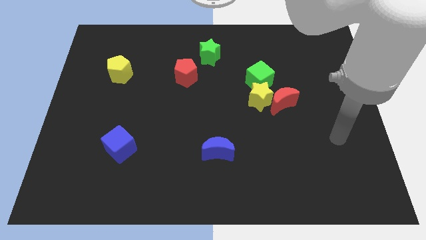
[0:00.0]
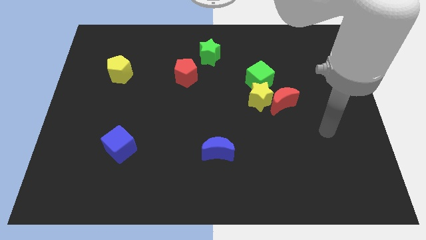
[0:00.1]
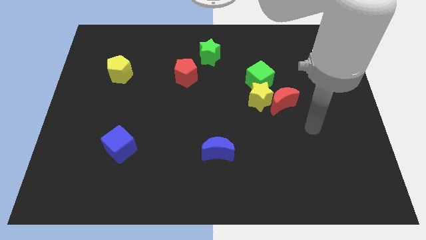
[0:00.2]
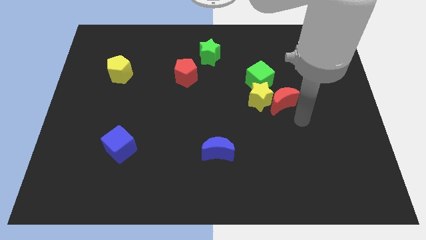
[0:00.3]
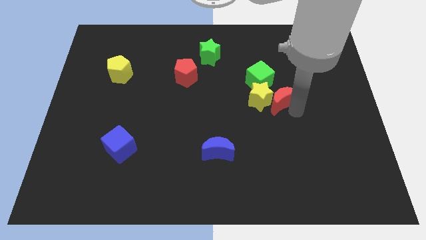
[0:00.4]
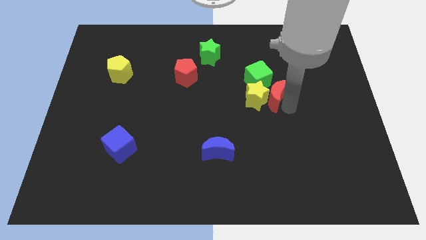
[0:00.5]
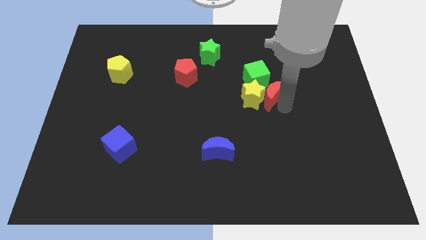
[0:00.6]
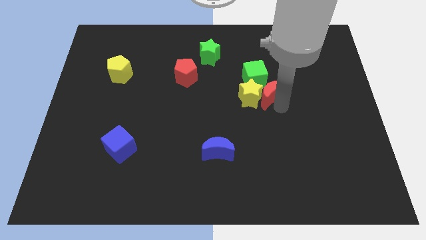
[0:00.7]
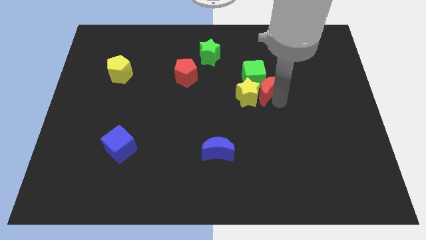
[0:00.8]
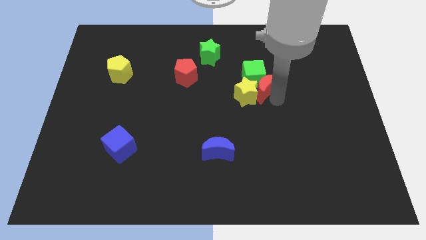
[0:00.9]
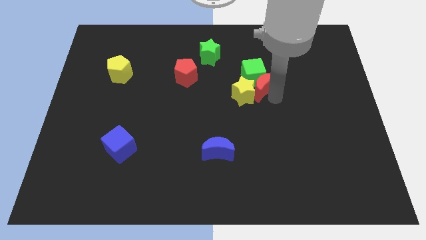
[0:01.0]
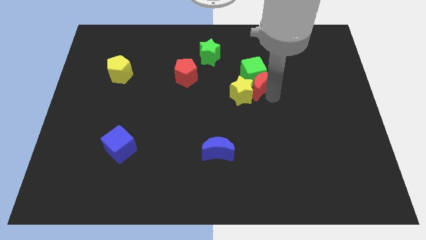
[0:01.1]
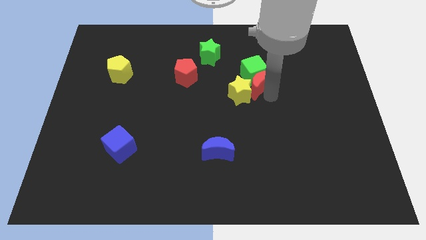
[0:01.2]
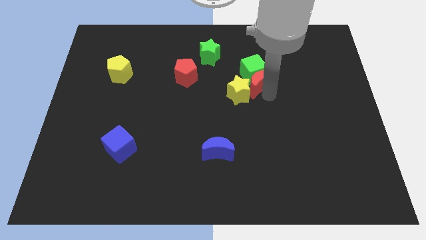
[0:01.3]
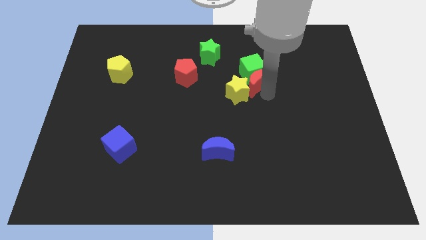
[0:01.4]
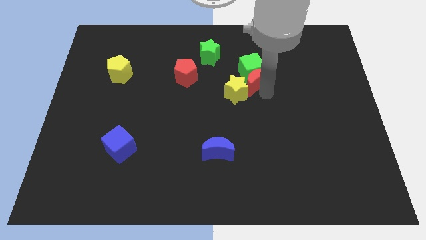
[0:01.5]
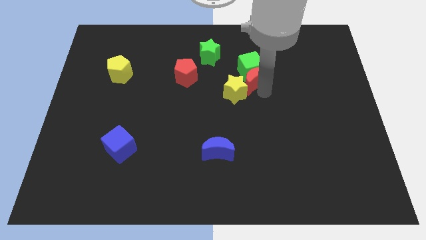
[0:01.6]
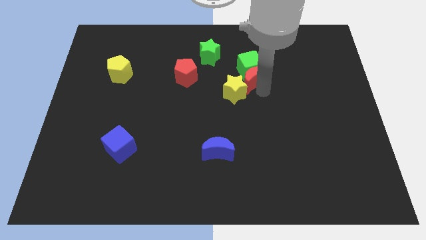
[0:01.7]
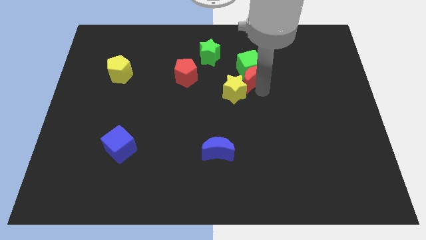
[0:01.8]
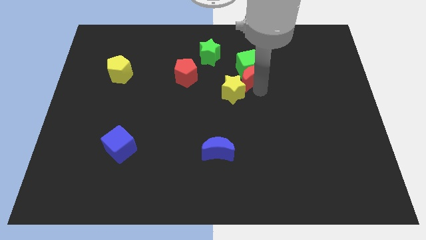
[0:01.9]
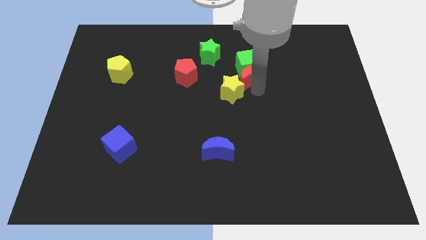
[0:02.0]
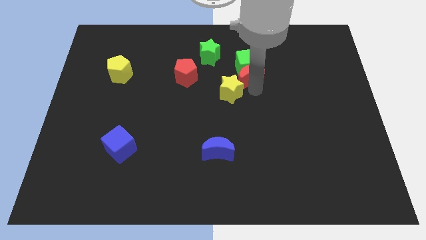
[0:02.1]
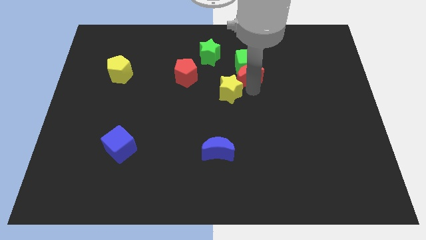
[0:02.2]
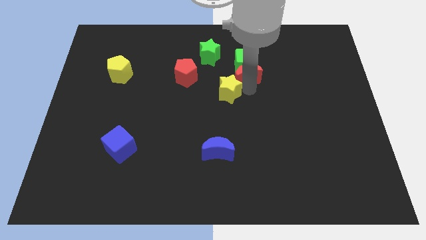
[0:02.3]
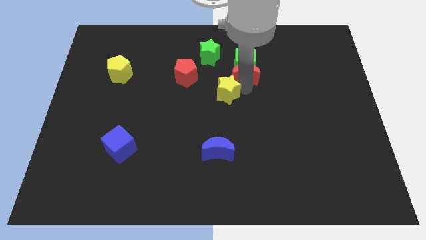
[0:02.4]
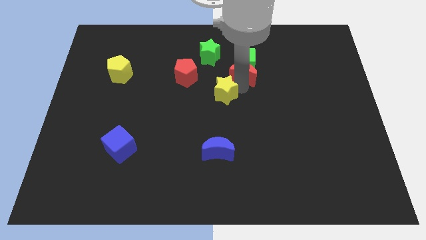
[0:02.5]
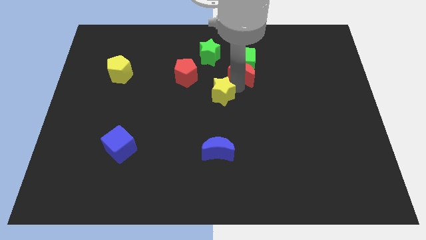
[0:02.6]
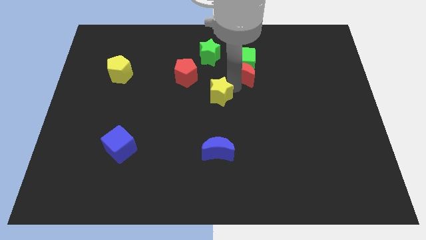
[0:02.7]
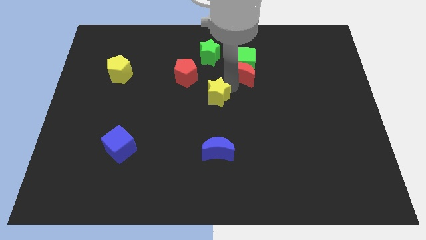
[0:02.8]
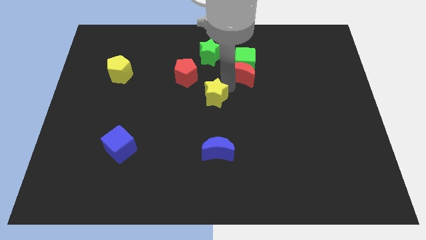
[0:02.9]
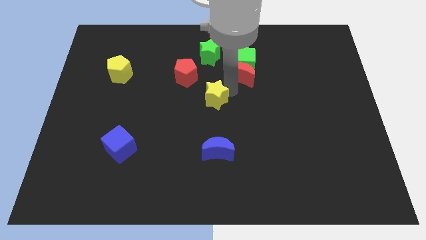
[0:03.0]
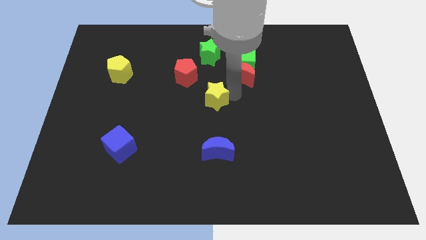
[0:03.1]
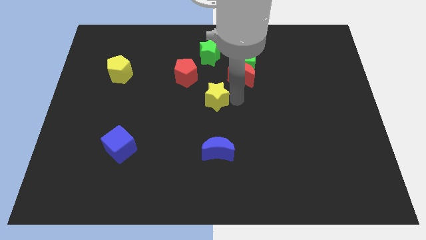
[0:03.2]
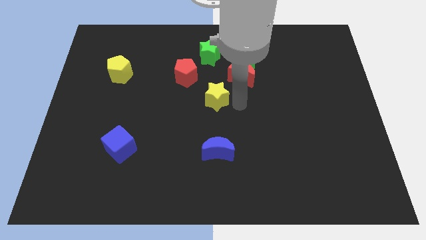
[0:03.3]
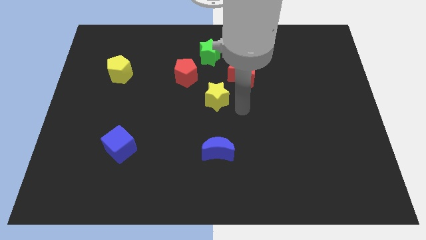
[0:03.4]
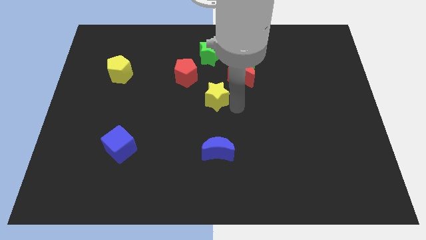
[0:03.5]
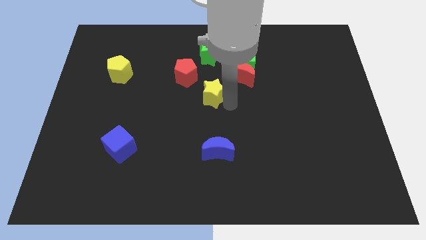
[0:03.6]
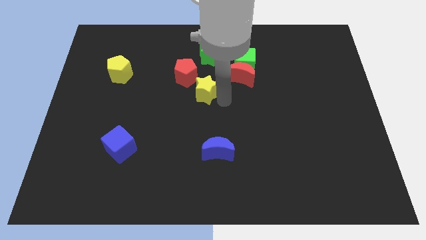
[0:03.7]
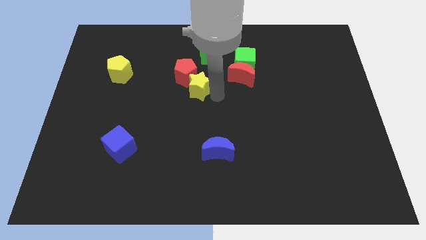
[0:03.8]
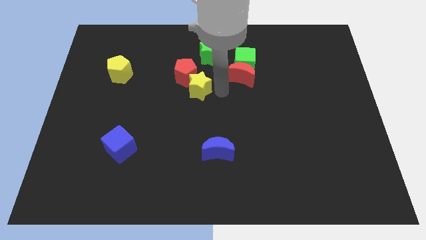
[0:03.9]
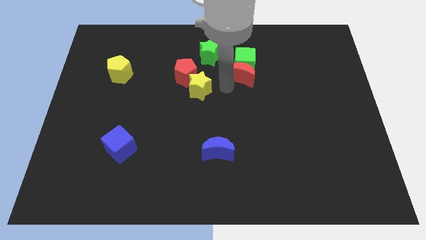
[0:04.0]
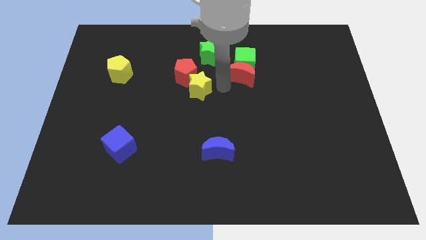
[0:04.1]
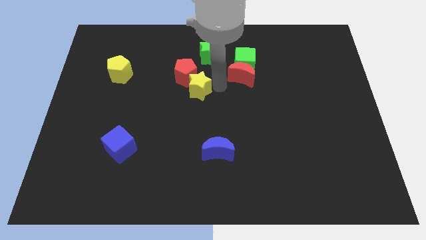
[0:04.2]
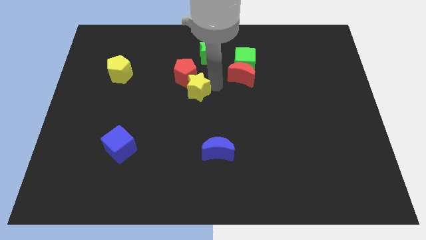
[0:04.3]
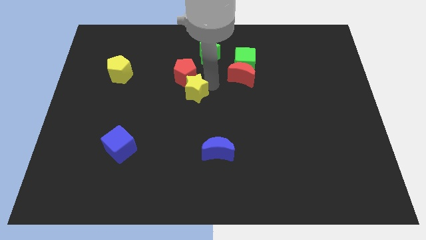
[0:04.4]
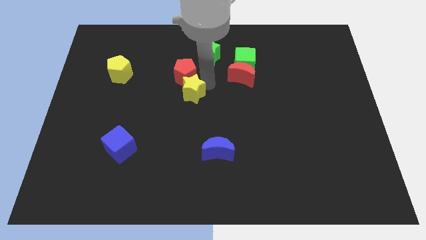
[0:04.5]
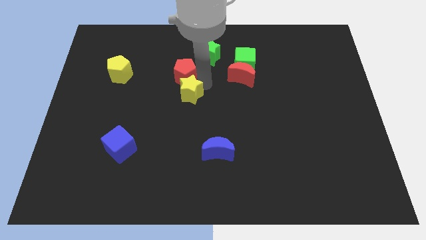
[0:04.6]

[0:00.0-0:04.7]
push the yellow star to the bottom left side of the red pentagon

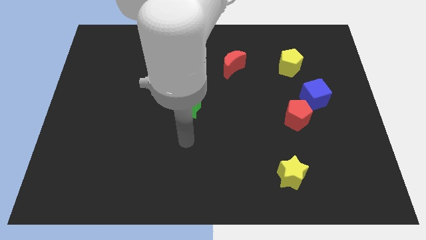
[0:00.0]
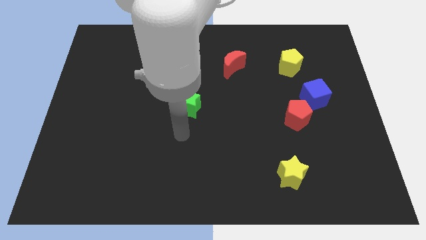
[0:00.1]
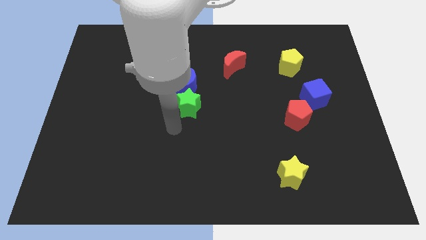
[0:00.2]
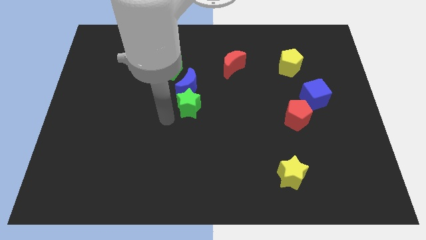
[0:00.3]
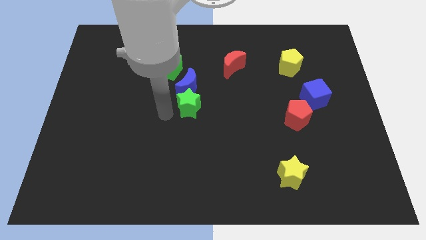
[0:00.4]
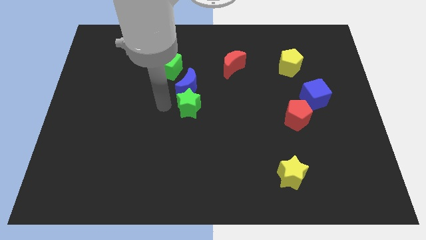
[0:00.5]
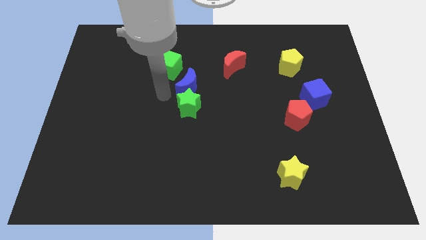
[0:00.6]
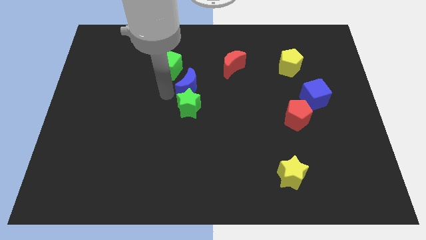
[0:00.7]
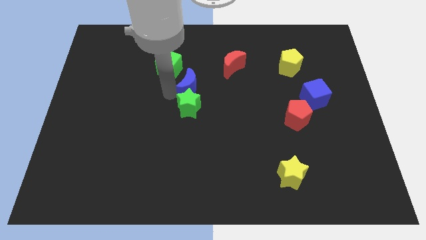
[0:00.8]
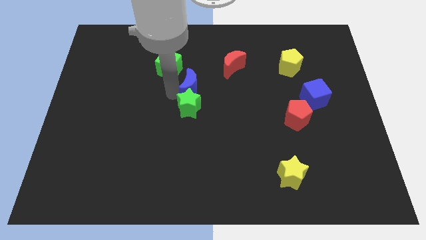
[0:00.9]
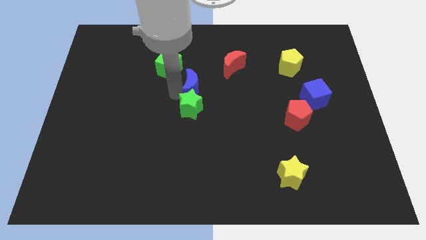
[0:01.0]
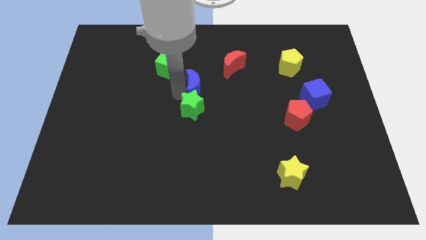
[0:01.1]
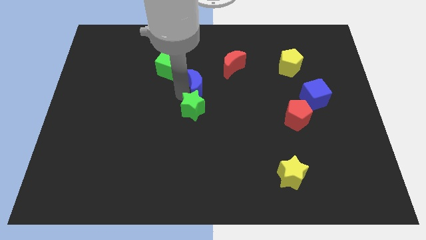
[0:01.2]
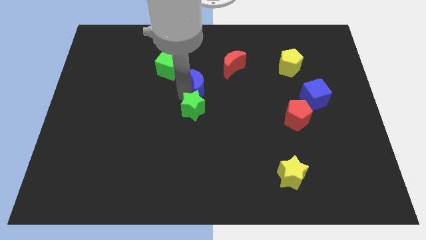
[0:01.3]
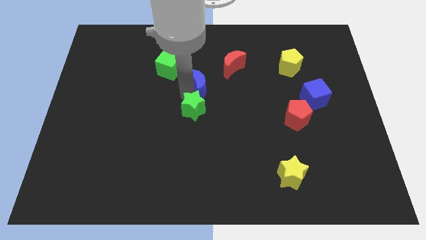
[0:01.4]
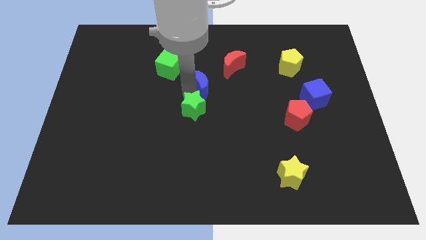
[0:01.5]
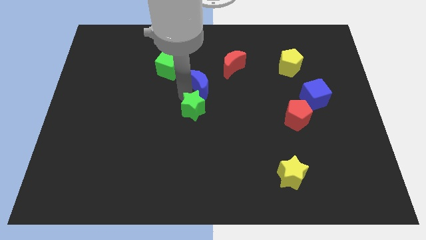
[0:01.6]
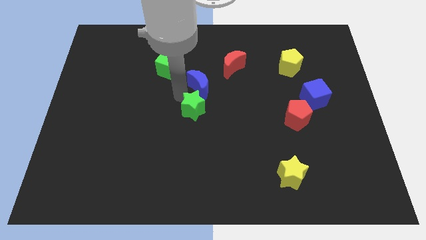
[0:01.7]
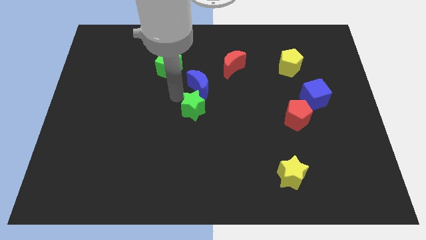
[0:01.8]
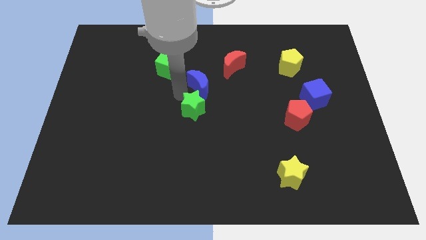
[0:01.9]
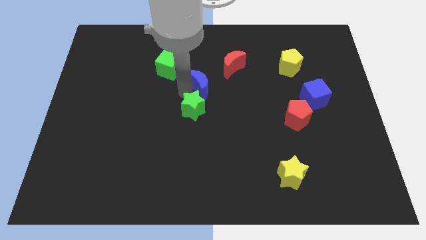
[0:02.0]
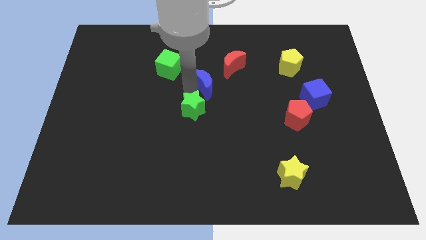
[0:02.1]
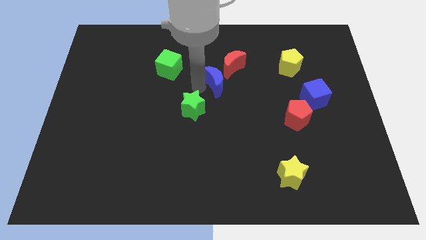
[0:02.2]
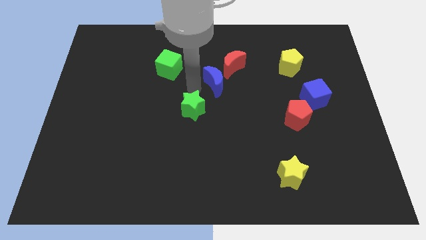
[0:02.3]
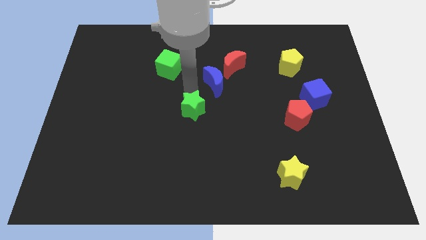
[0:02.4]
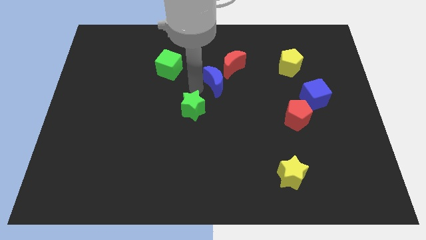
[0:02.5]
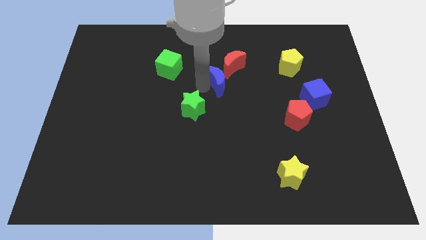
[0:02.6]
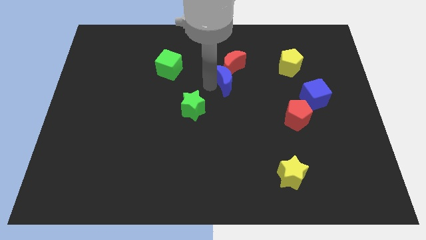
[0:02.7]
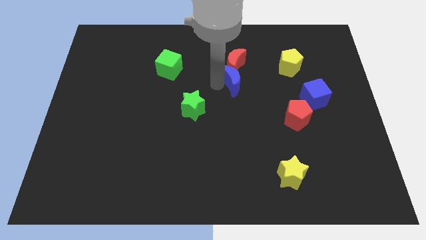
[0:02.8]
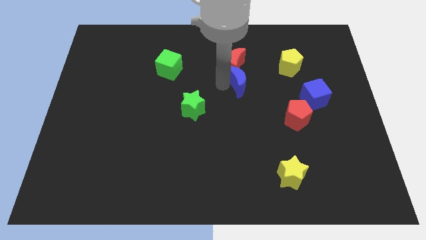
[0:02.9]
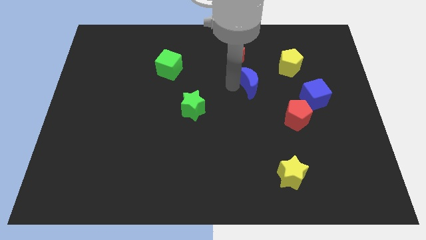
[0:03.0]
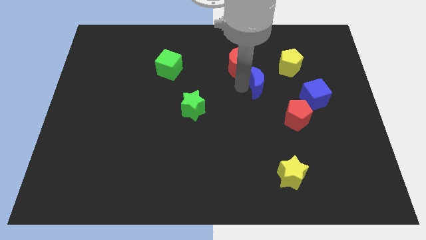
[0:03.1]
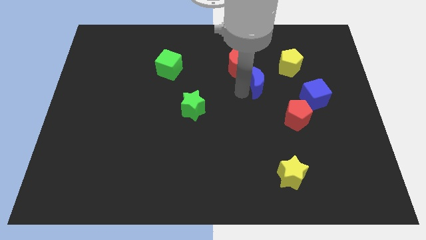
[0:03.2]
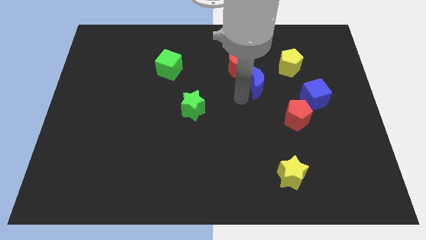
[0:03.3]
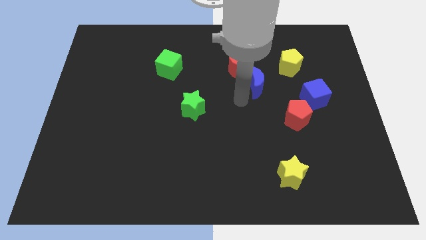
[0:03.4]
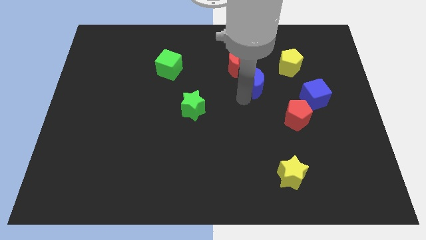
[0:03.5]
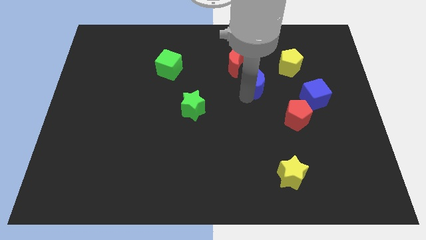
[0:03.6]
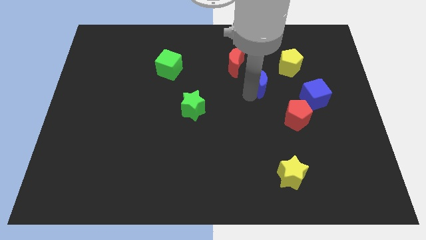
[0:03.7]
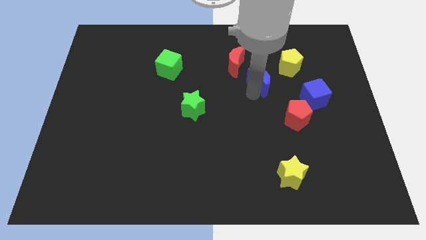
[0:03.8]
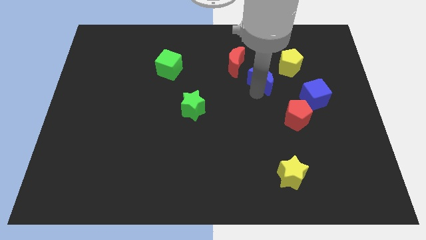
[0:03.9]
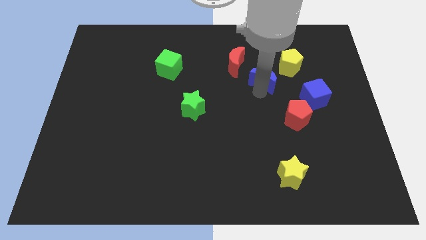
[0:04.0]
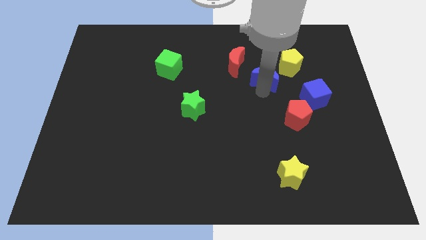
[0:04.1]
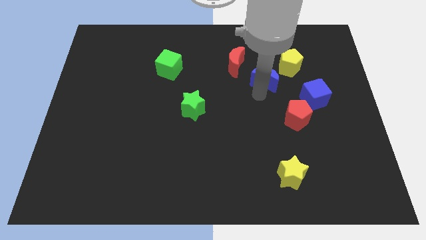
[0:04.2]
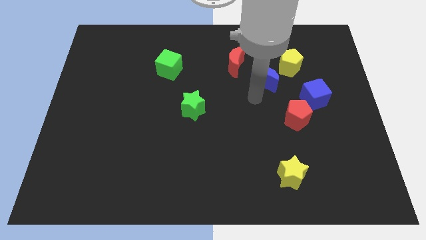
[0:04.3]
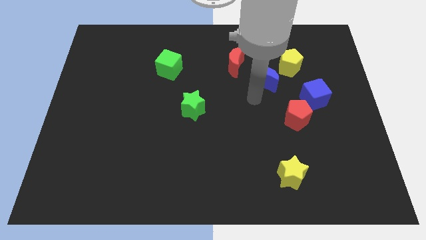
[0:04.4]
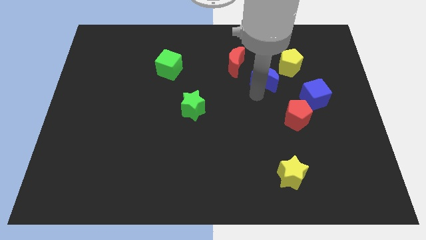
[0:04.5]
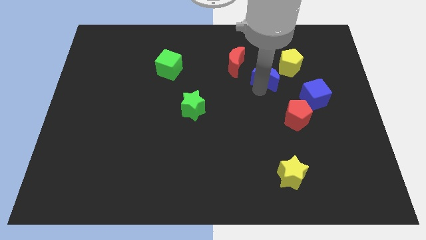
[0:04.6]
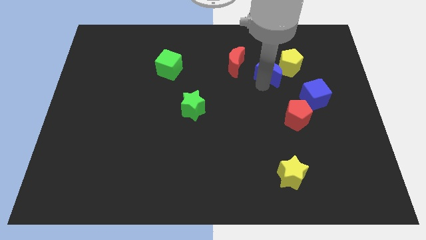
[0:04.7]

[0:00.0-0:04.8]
move the blue moon right of the red moon
